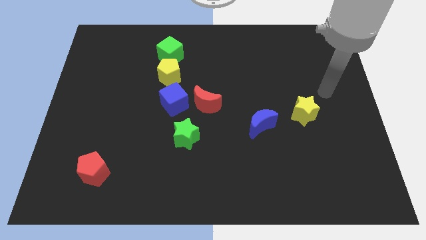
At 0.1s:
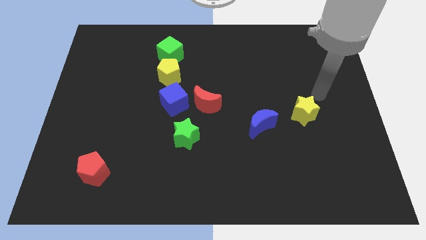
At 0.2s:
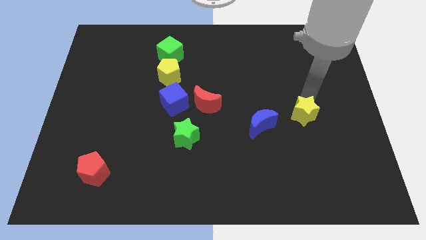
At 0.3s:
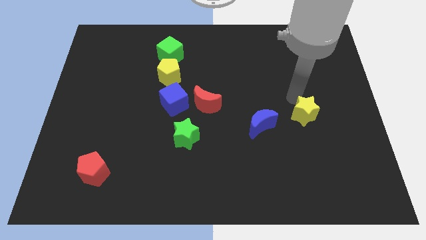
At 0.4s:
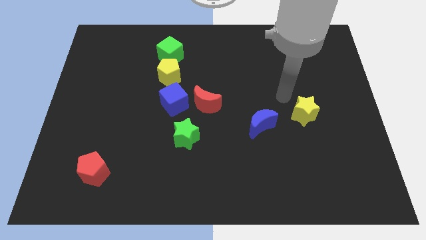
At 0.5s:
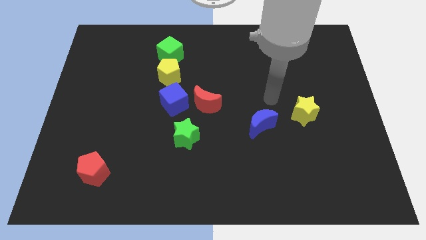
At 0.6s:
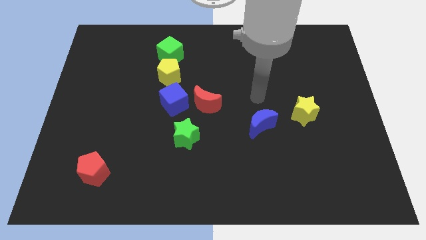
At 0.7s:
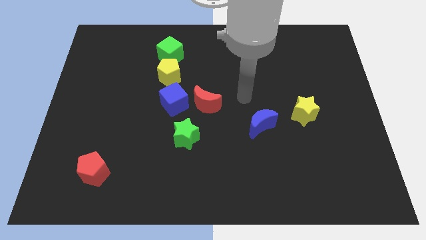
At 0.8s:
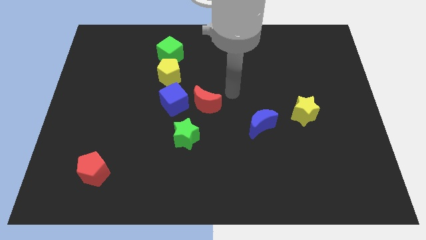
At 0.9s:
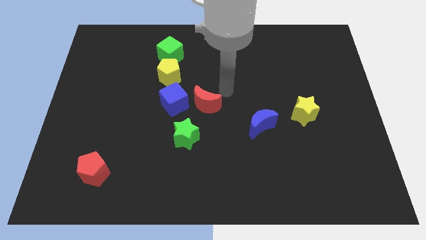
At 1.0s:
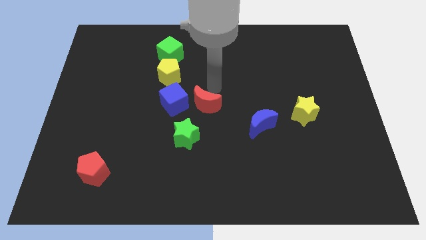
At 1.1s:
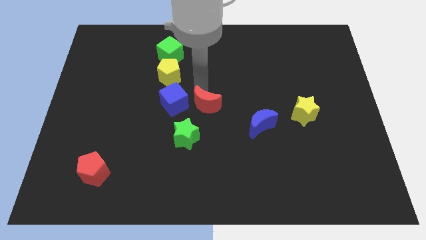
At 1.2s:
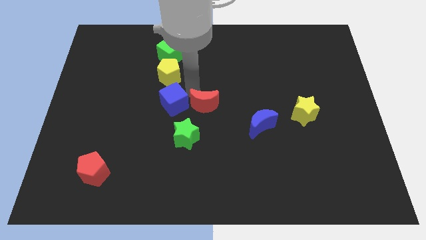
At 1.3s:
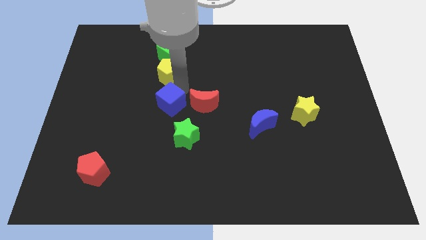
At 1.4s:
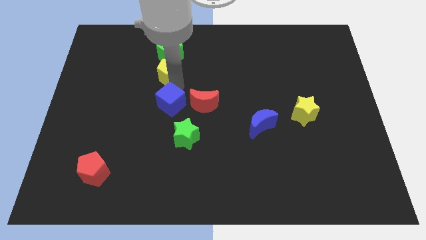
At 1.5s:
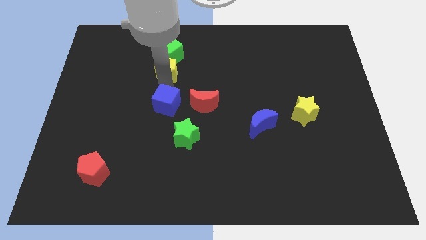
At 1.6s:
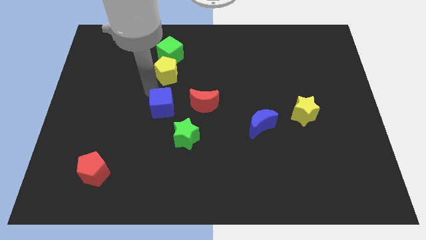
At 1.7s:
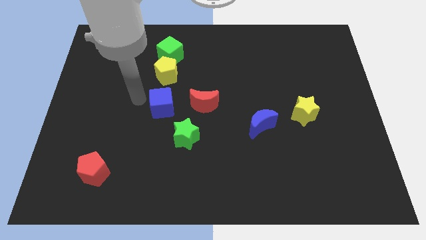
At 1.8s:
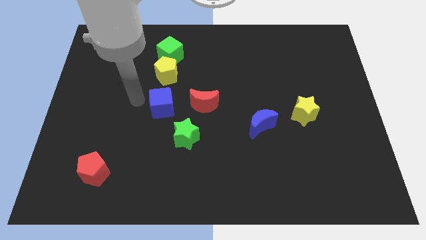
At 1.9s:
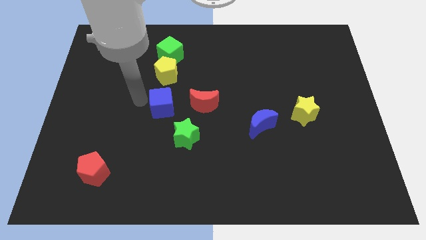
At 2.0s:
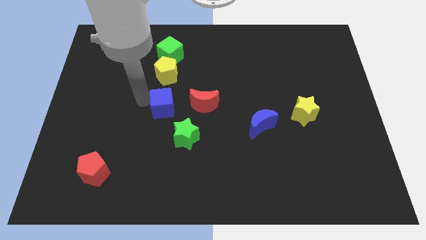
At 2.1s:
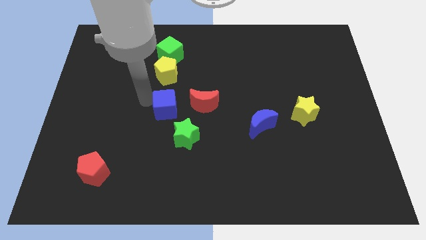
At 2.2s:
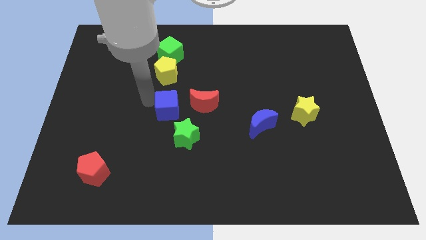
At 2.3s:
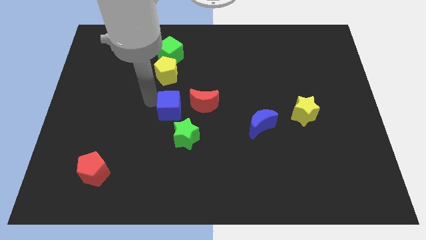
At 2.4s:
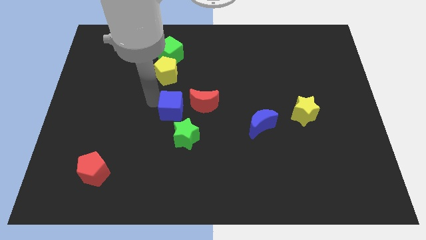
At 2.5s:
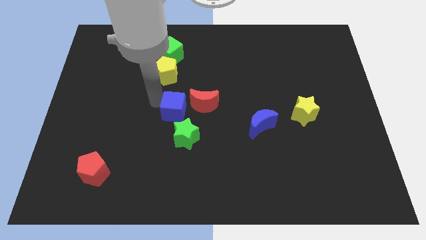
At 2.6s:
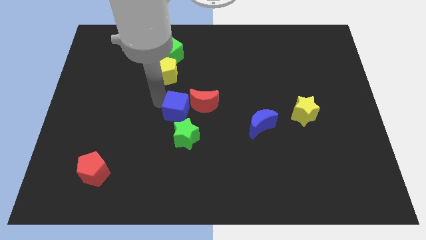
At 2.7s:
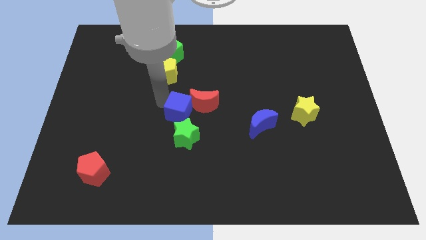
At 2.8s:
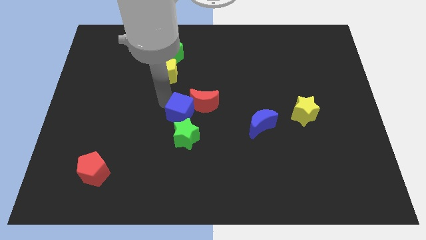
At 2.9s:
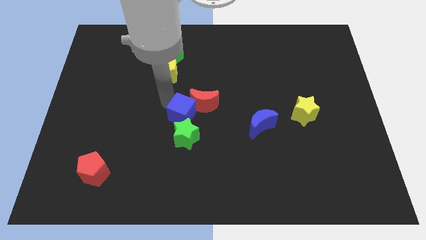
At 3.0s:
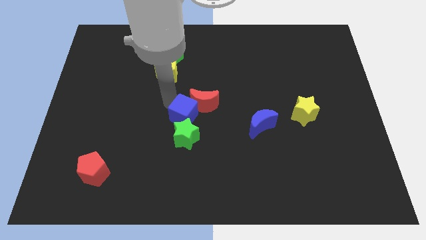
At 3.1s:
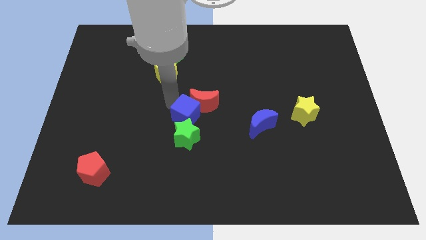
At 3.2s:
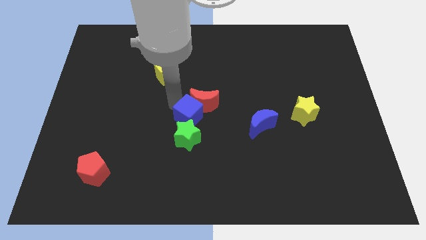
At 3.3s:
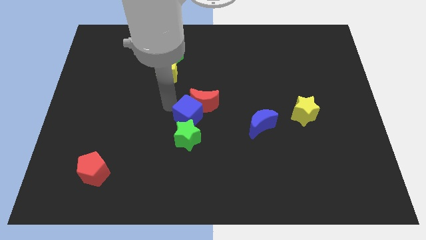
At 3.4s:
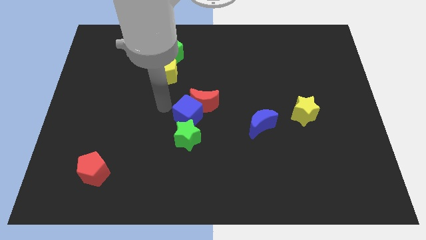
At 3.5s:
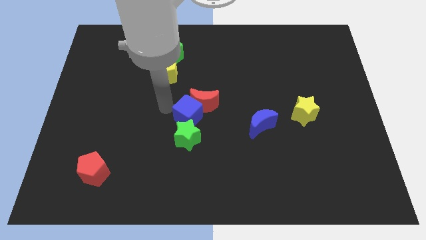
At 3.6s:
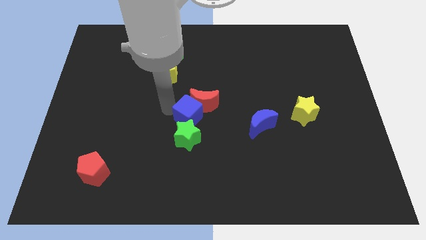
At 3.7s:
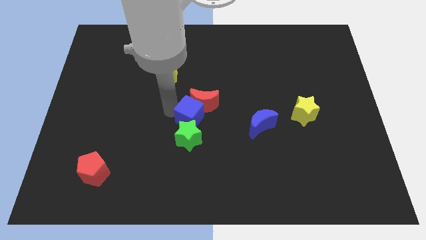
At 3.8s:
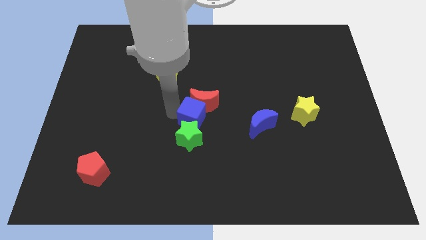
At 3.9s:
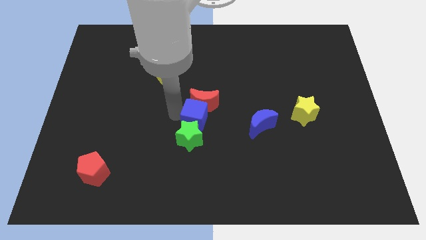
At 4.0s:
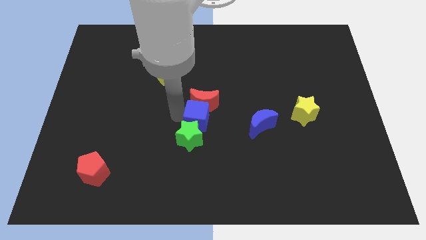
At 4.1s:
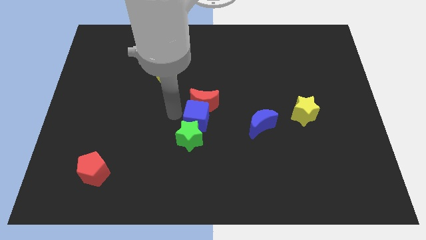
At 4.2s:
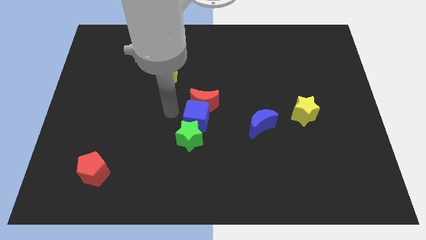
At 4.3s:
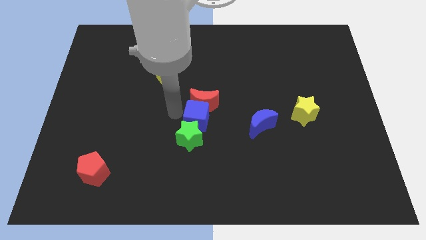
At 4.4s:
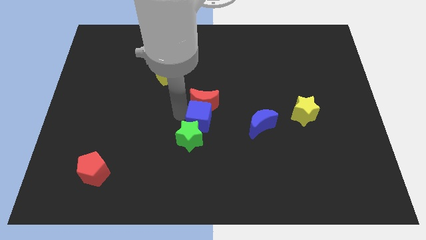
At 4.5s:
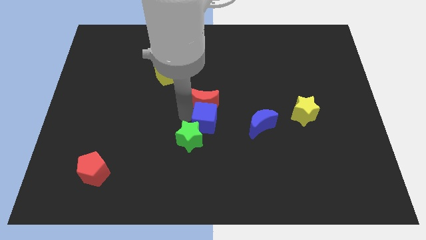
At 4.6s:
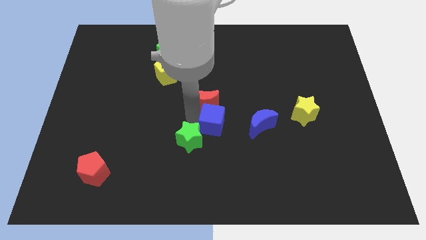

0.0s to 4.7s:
move the blue cube a bit to the right

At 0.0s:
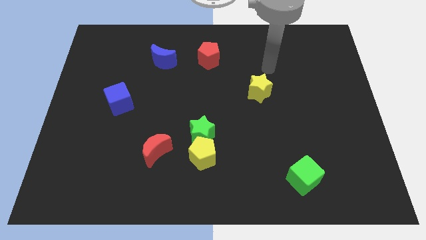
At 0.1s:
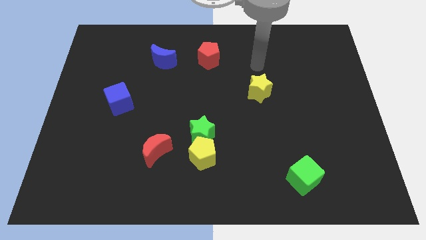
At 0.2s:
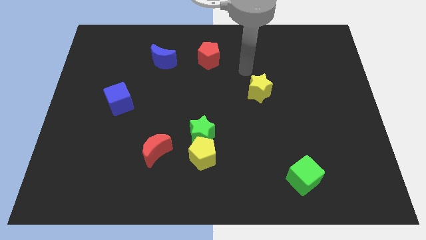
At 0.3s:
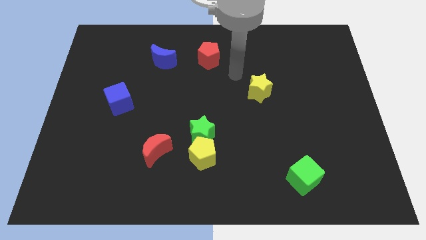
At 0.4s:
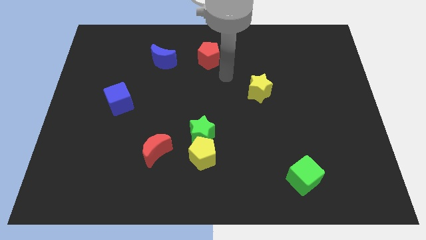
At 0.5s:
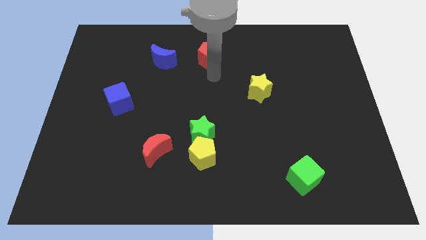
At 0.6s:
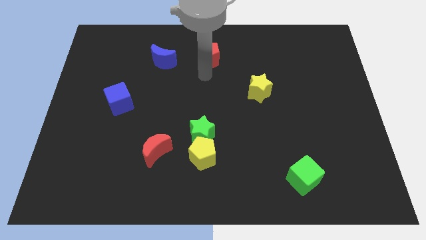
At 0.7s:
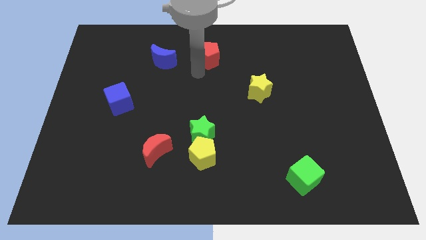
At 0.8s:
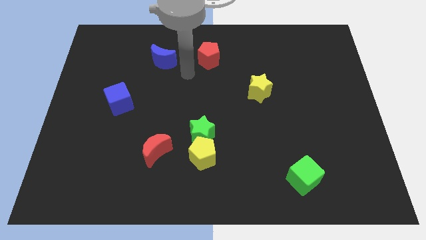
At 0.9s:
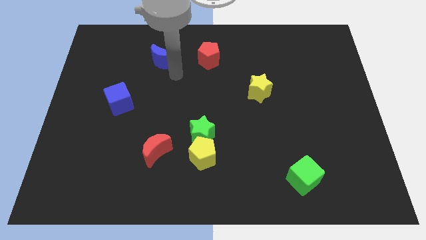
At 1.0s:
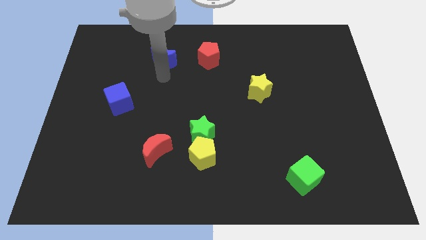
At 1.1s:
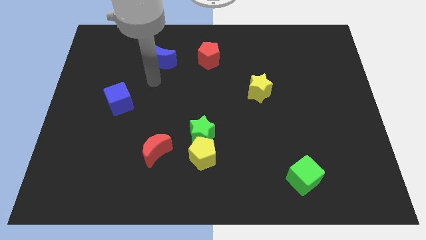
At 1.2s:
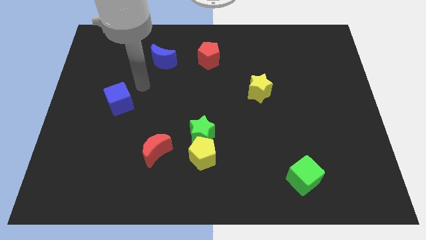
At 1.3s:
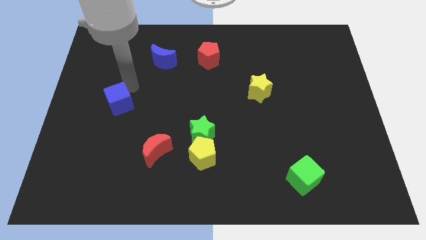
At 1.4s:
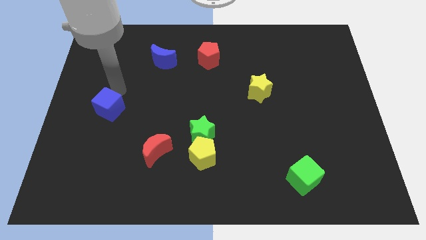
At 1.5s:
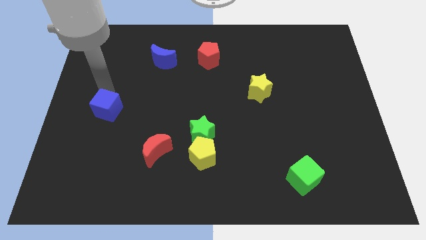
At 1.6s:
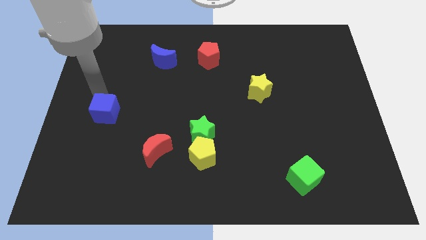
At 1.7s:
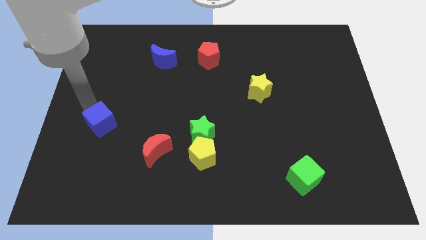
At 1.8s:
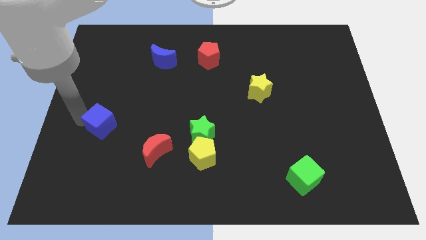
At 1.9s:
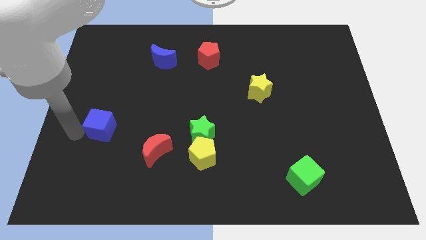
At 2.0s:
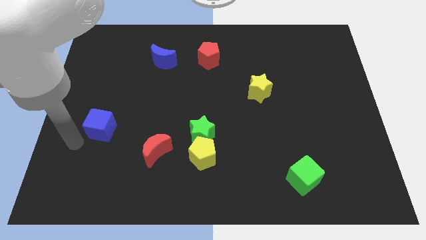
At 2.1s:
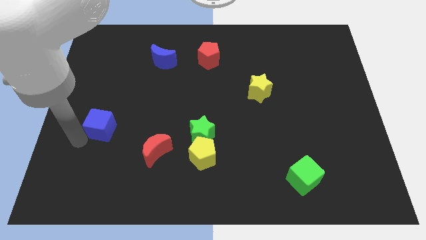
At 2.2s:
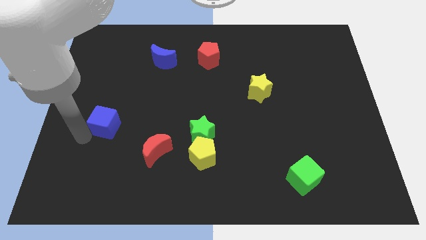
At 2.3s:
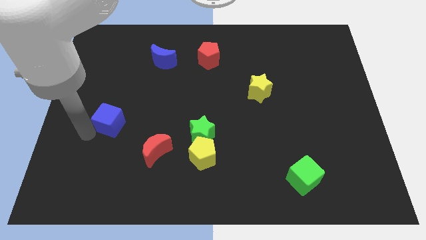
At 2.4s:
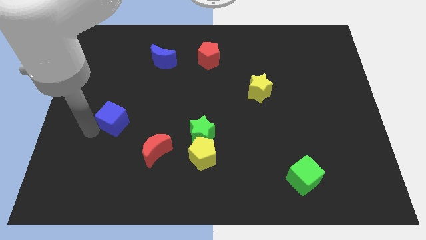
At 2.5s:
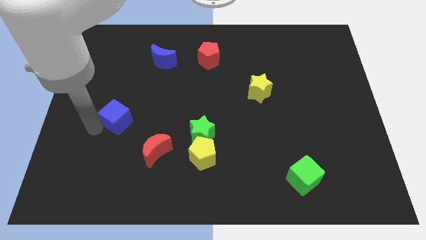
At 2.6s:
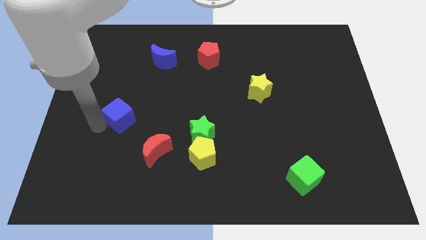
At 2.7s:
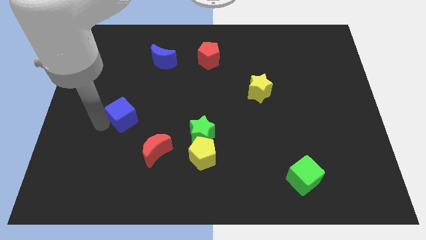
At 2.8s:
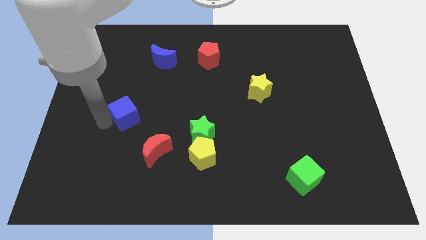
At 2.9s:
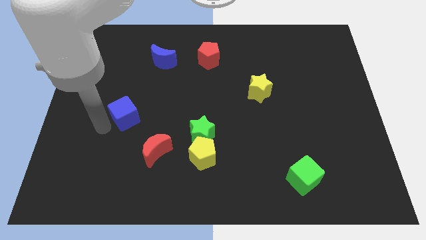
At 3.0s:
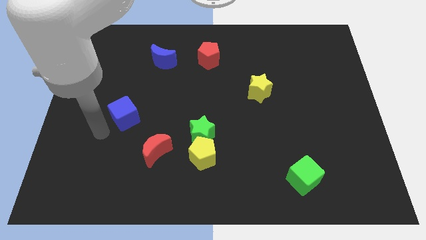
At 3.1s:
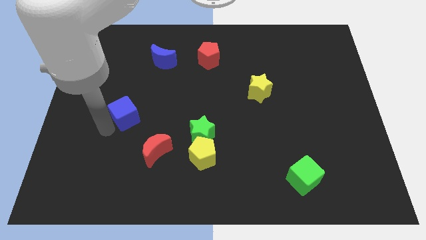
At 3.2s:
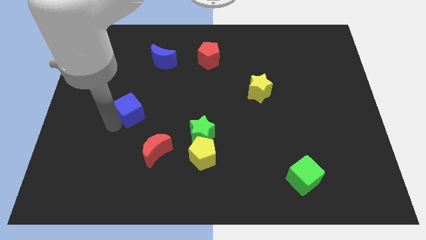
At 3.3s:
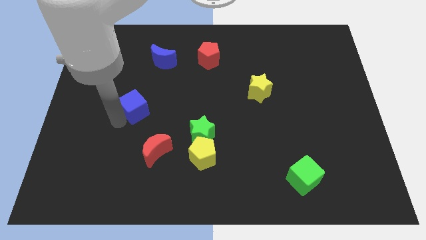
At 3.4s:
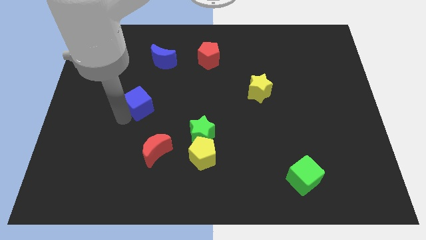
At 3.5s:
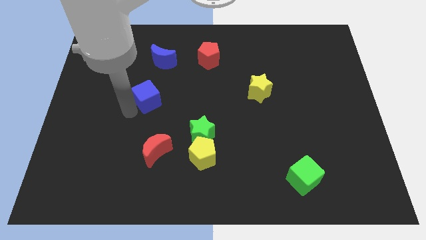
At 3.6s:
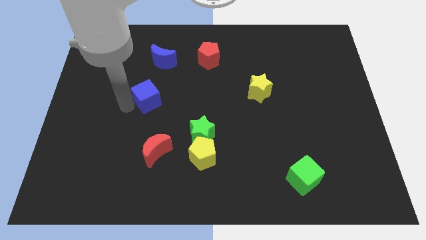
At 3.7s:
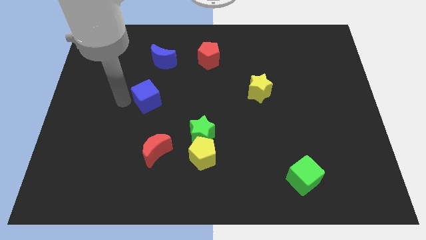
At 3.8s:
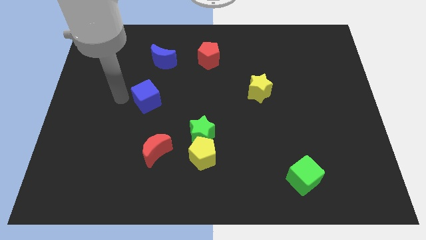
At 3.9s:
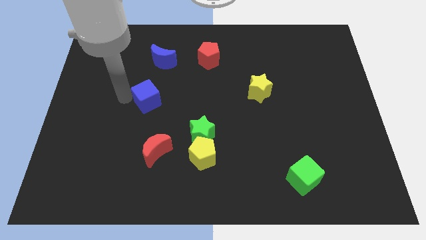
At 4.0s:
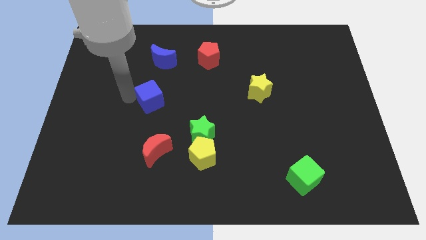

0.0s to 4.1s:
move the blue cube to the right a bit
